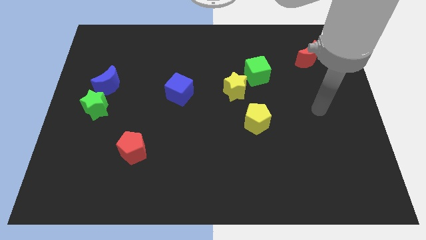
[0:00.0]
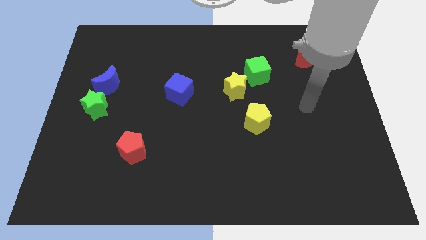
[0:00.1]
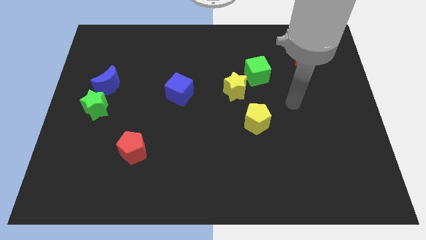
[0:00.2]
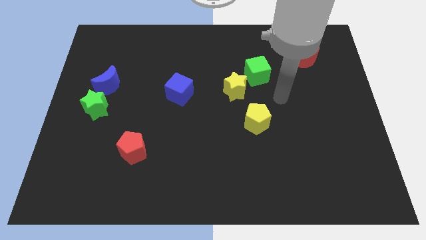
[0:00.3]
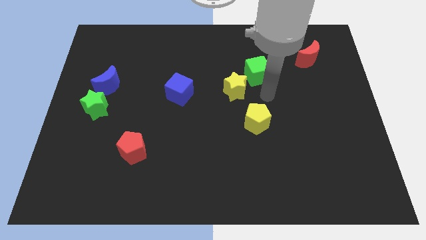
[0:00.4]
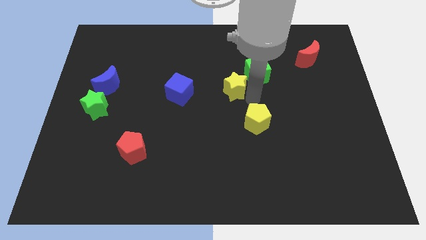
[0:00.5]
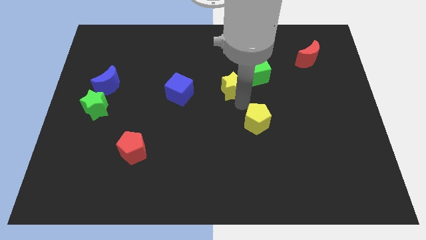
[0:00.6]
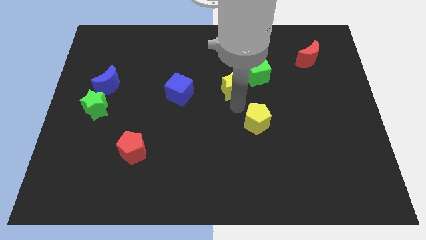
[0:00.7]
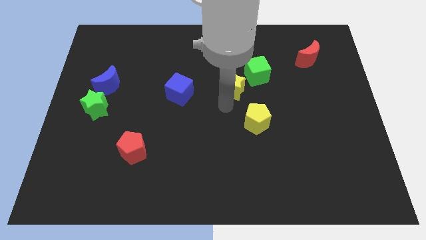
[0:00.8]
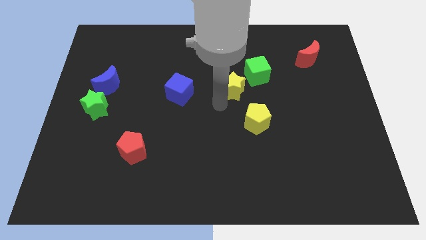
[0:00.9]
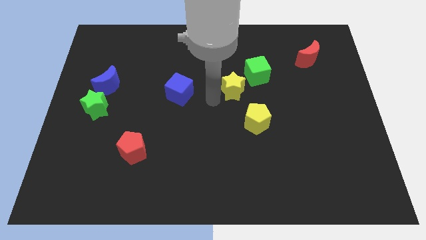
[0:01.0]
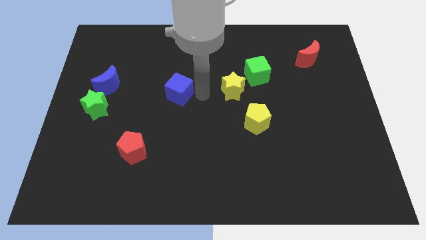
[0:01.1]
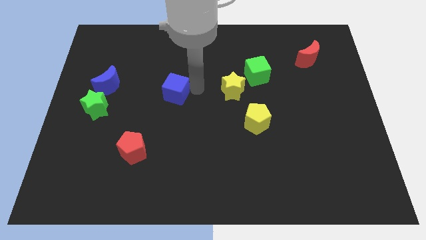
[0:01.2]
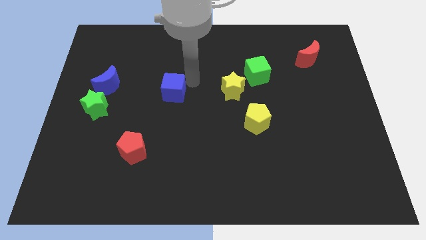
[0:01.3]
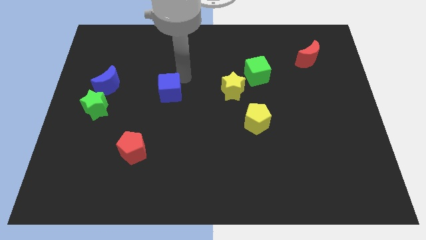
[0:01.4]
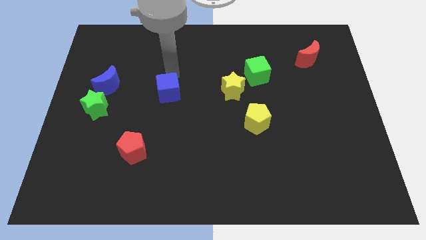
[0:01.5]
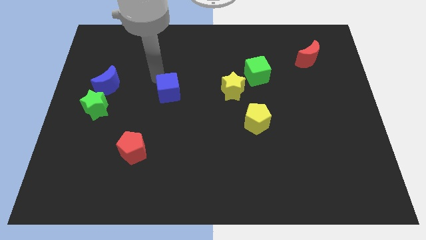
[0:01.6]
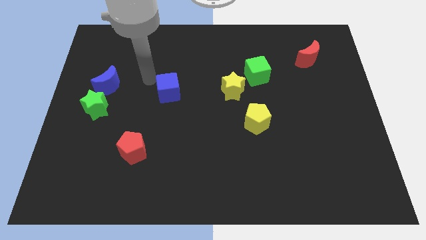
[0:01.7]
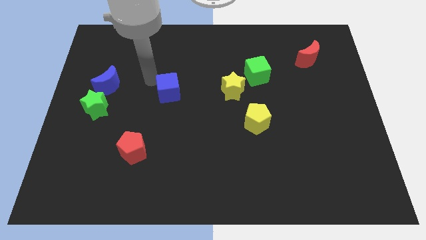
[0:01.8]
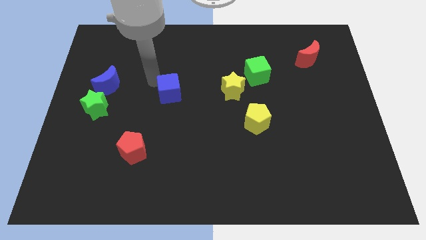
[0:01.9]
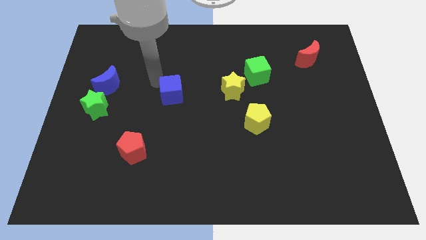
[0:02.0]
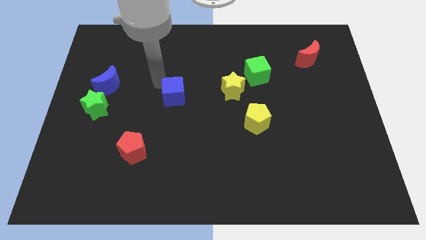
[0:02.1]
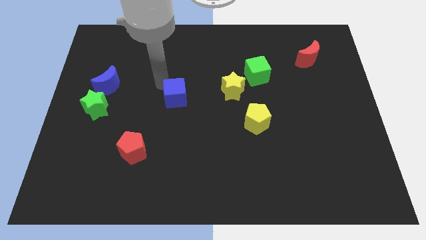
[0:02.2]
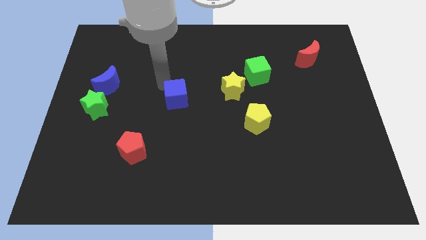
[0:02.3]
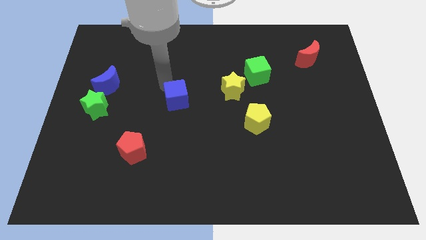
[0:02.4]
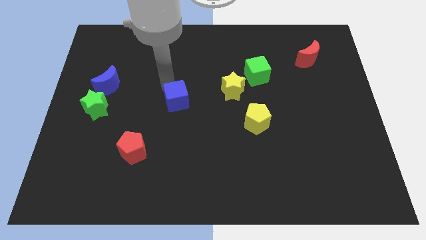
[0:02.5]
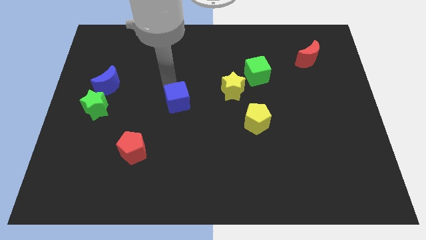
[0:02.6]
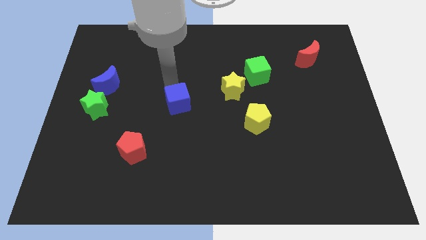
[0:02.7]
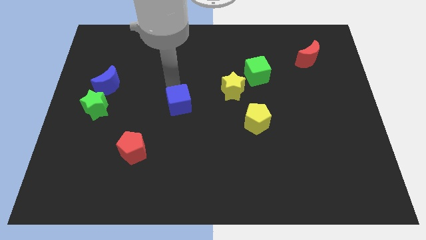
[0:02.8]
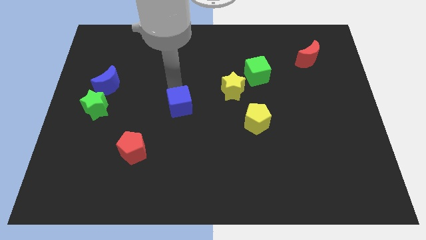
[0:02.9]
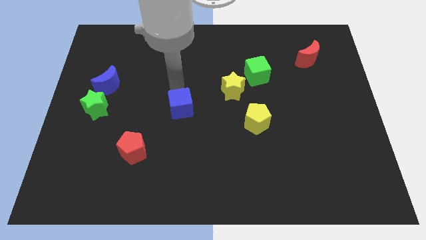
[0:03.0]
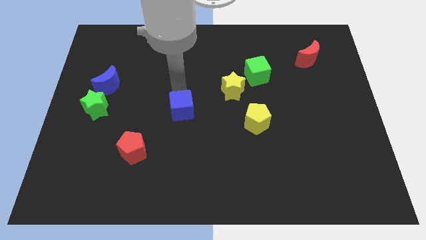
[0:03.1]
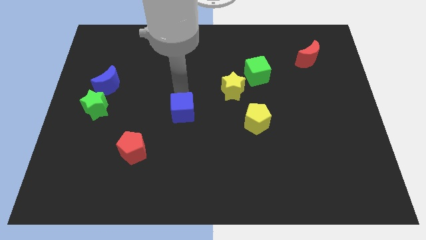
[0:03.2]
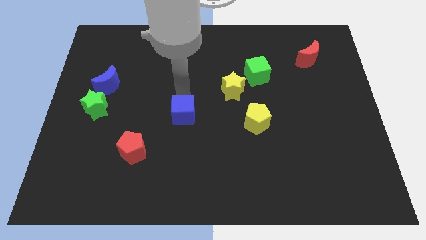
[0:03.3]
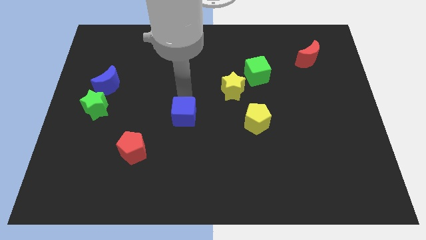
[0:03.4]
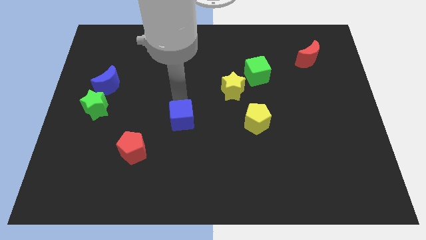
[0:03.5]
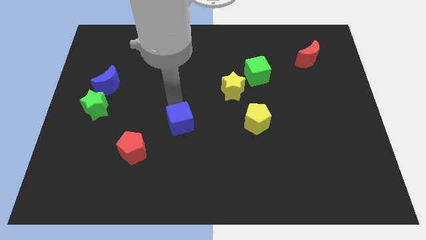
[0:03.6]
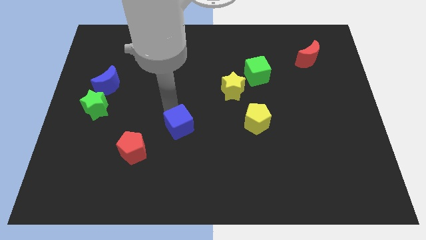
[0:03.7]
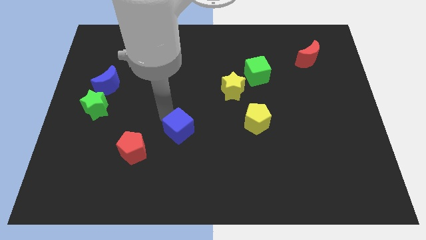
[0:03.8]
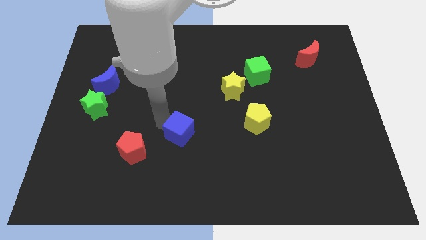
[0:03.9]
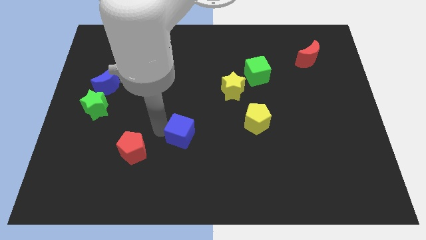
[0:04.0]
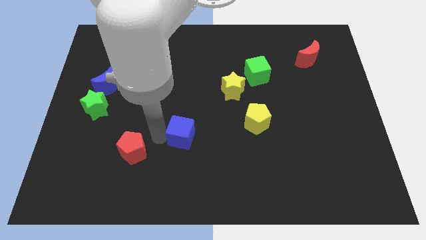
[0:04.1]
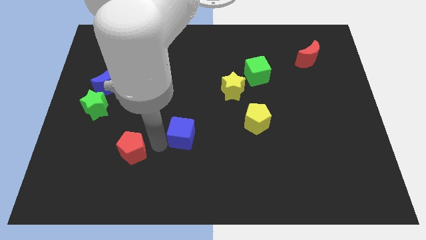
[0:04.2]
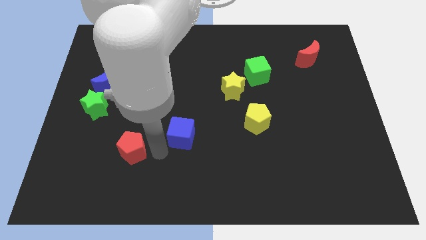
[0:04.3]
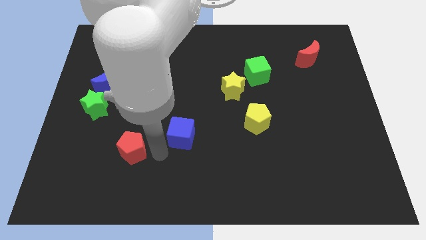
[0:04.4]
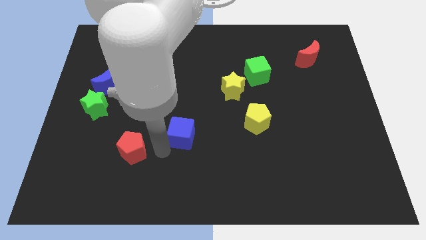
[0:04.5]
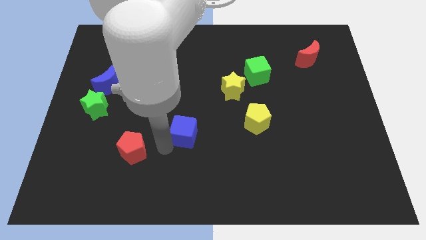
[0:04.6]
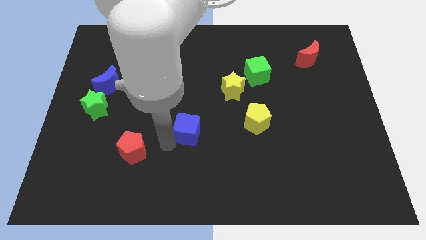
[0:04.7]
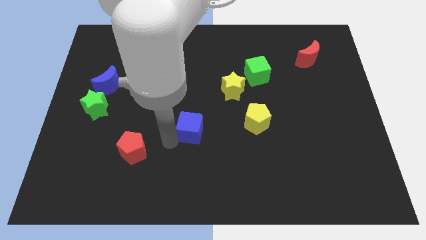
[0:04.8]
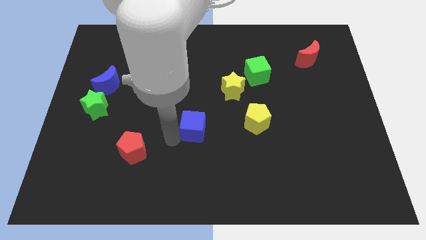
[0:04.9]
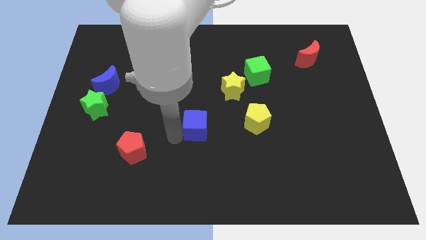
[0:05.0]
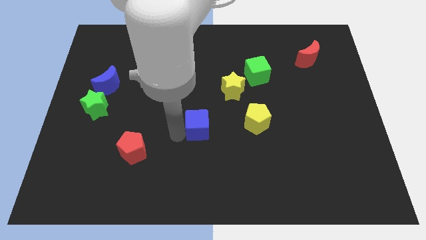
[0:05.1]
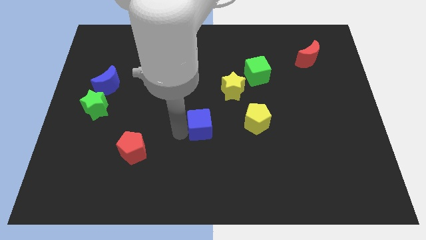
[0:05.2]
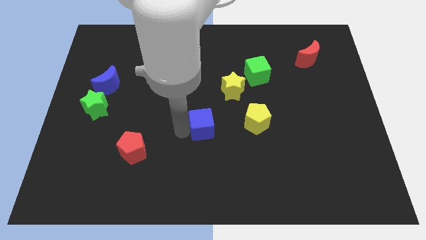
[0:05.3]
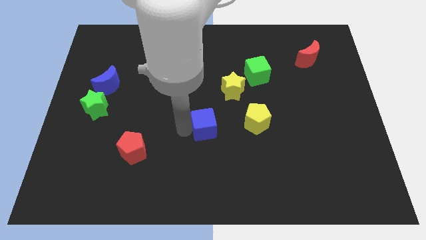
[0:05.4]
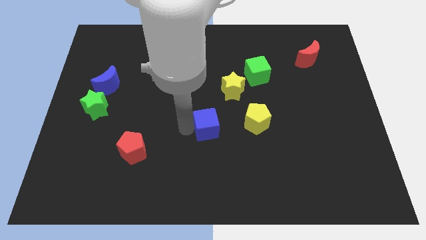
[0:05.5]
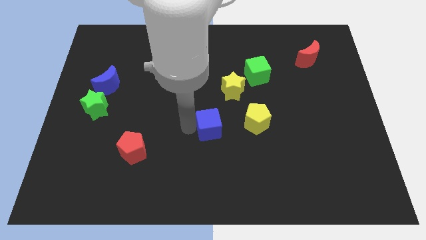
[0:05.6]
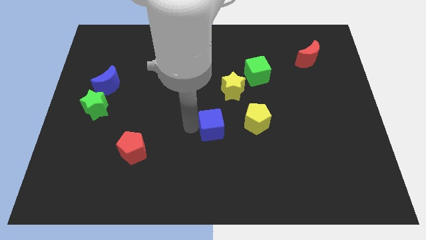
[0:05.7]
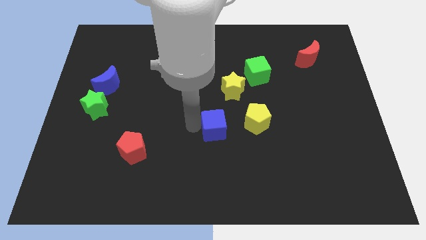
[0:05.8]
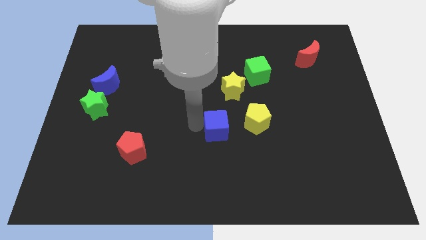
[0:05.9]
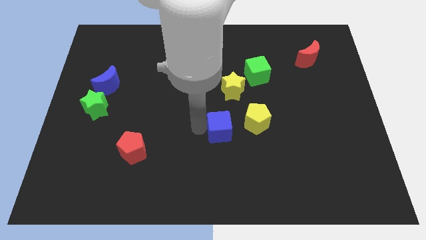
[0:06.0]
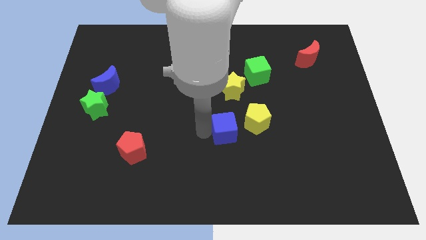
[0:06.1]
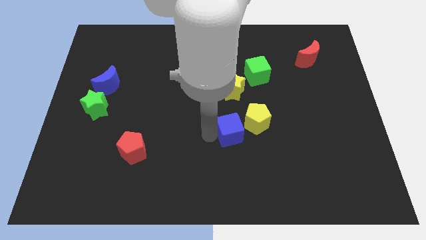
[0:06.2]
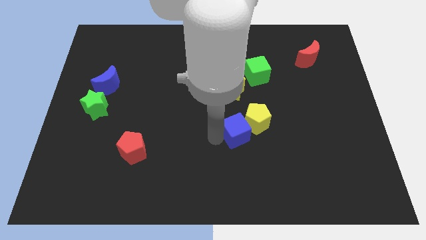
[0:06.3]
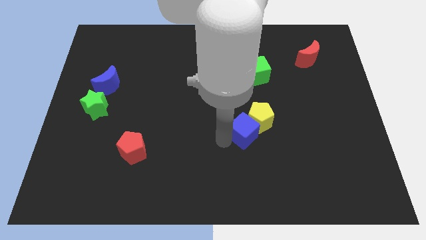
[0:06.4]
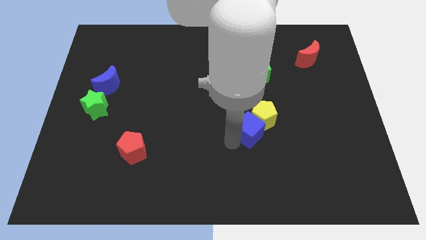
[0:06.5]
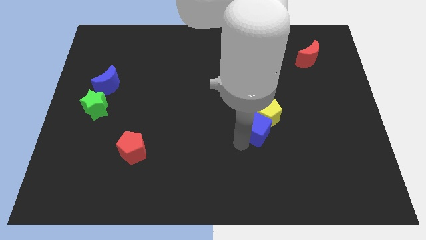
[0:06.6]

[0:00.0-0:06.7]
move the blue cube down and then right

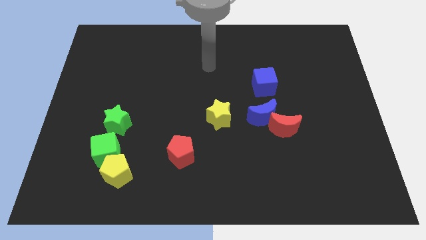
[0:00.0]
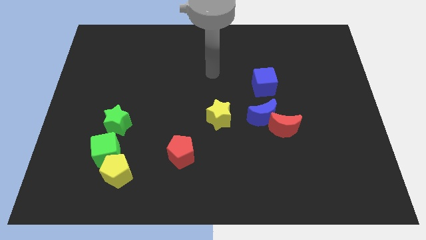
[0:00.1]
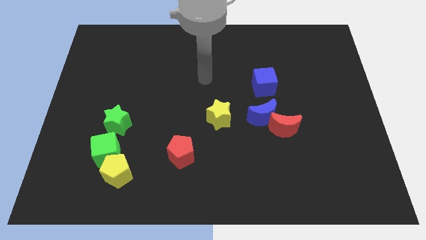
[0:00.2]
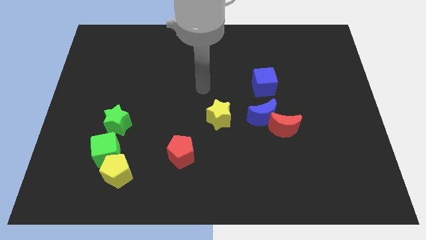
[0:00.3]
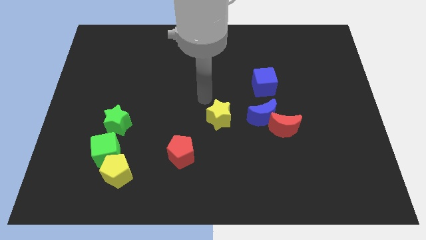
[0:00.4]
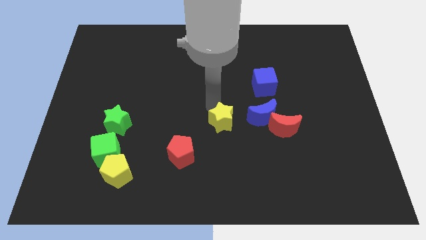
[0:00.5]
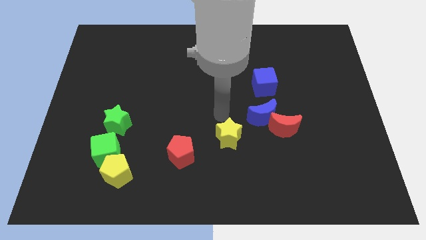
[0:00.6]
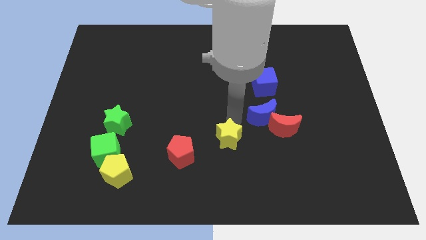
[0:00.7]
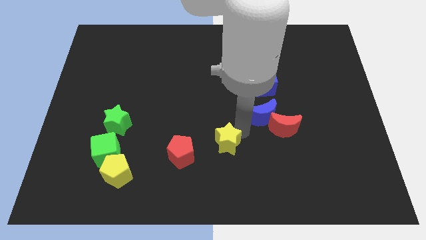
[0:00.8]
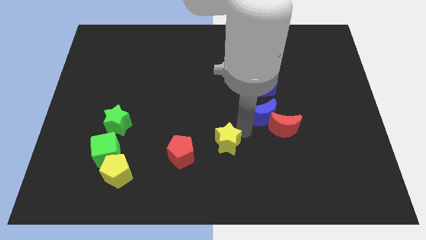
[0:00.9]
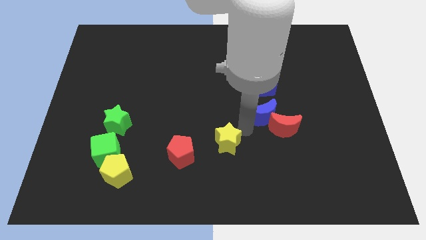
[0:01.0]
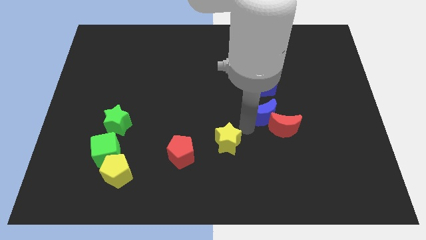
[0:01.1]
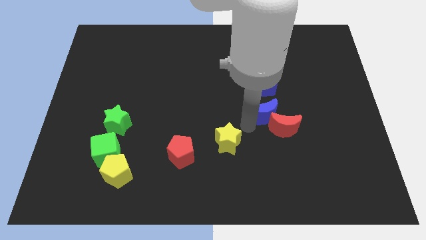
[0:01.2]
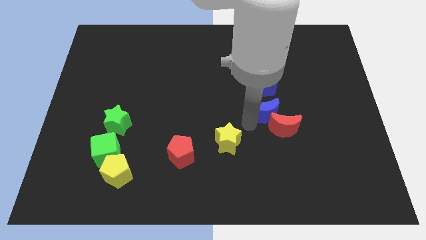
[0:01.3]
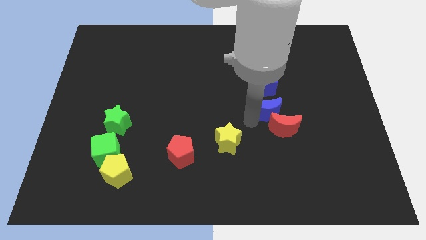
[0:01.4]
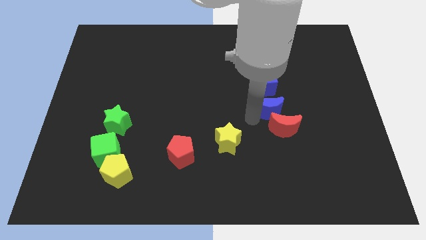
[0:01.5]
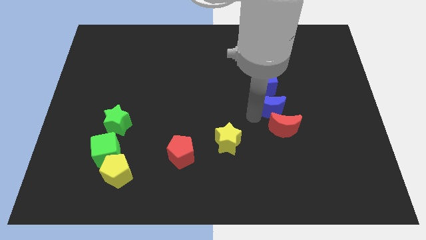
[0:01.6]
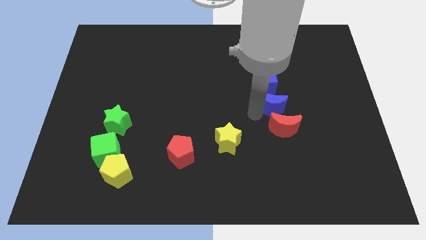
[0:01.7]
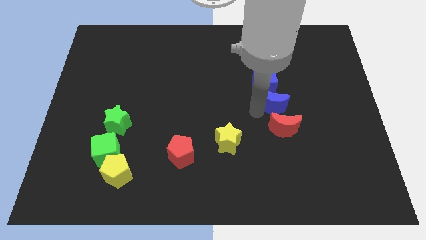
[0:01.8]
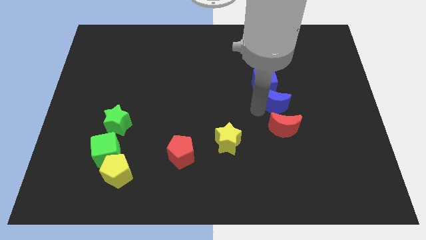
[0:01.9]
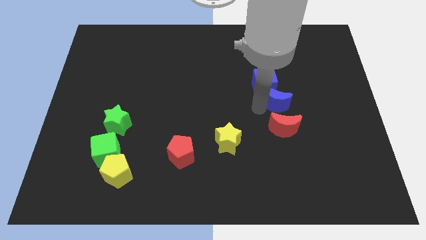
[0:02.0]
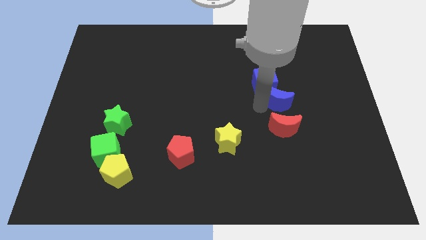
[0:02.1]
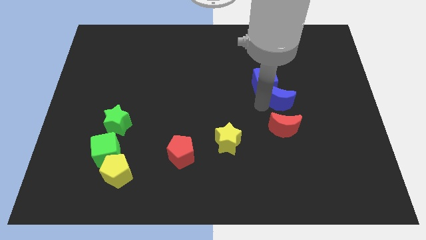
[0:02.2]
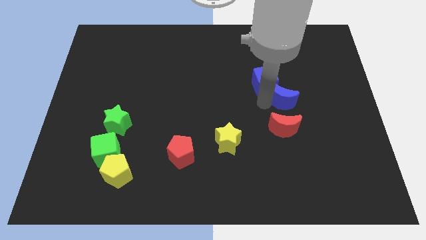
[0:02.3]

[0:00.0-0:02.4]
push the blue moon diagonally up and right somewhat
